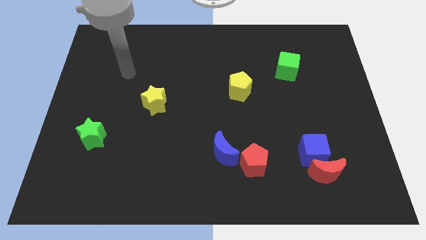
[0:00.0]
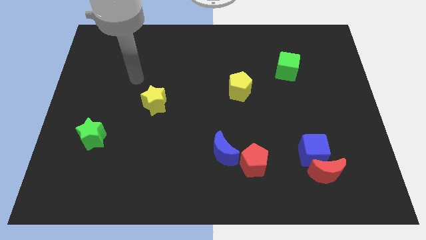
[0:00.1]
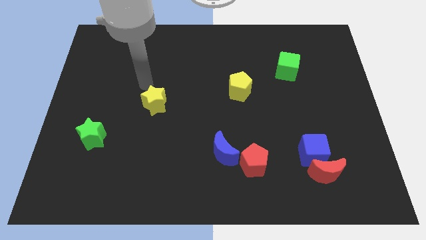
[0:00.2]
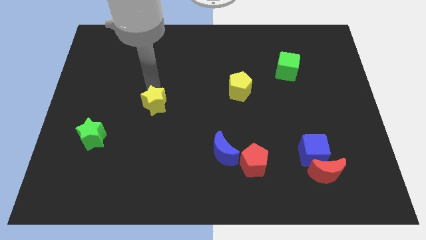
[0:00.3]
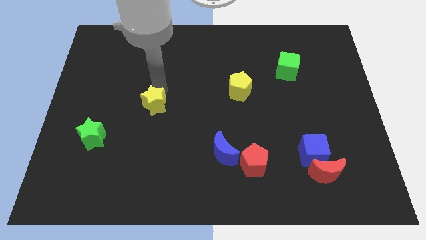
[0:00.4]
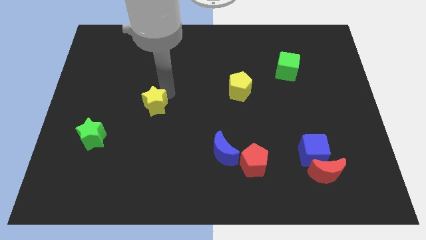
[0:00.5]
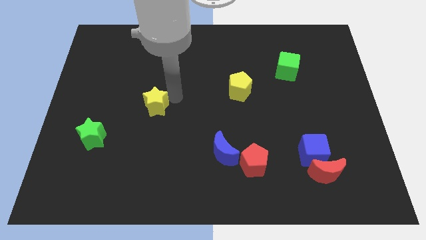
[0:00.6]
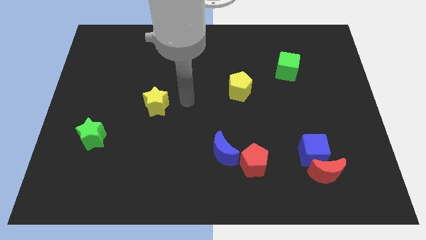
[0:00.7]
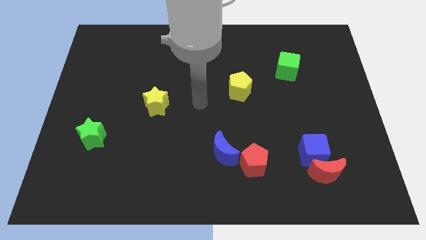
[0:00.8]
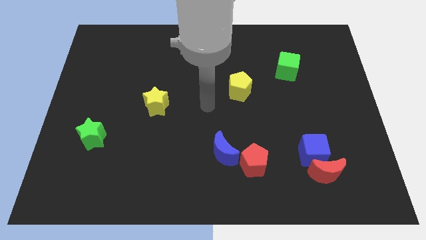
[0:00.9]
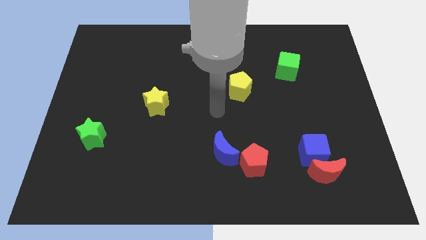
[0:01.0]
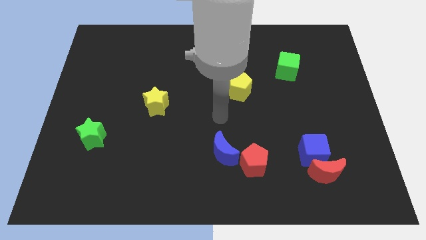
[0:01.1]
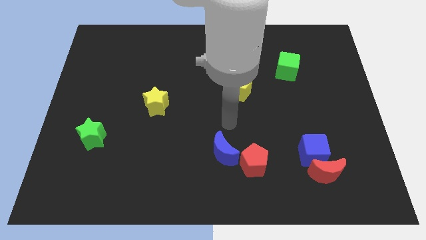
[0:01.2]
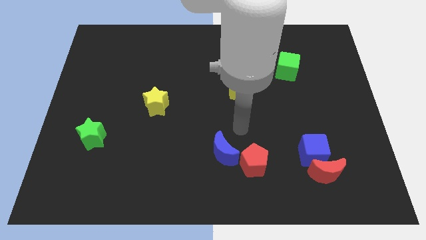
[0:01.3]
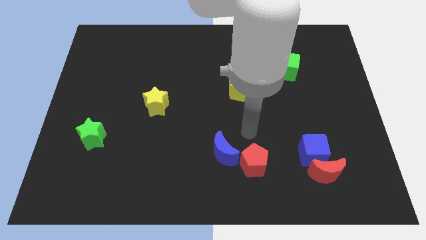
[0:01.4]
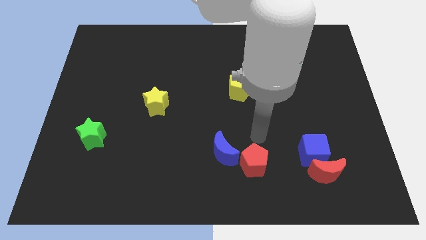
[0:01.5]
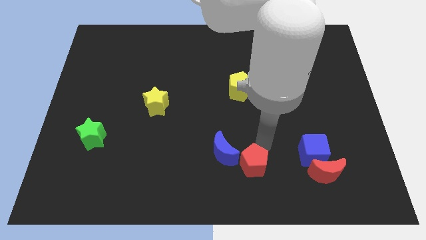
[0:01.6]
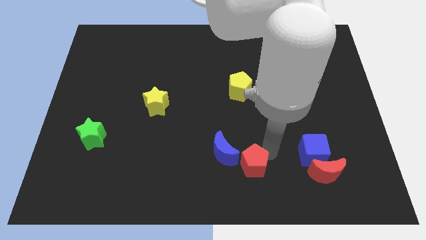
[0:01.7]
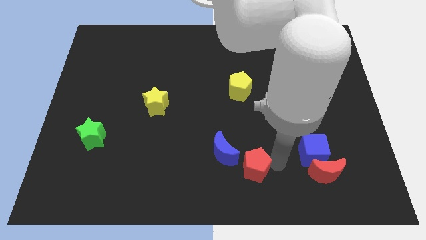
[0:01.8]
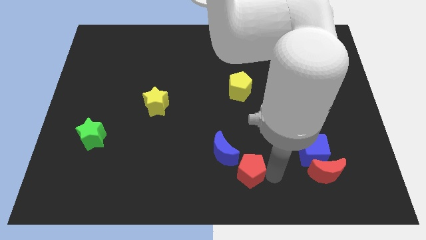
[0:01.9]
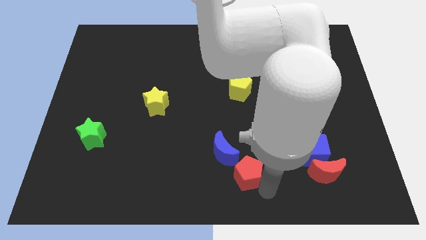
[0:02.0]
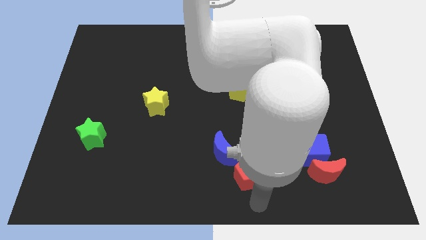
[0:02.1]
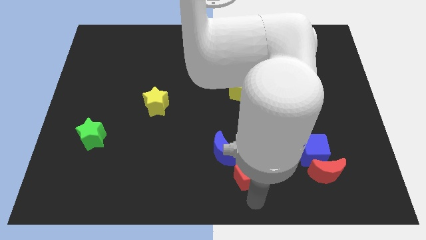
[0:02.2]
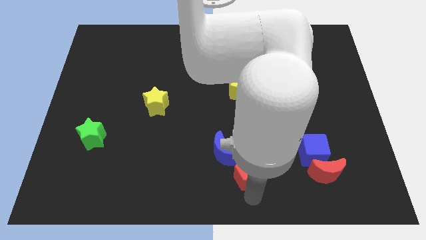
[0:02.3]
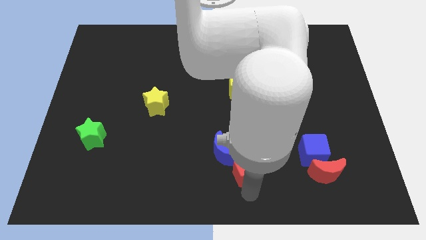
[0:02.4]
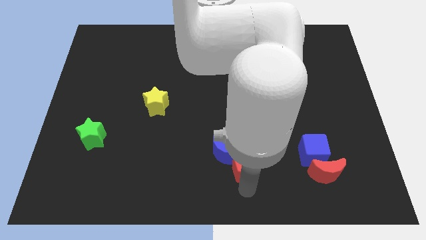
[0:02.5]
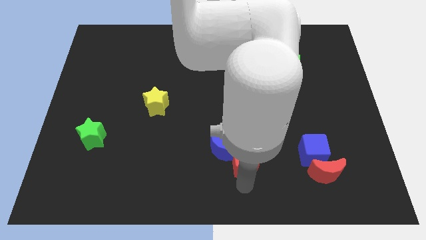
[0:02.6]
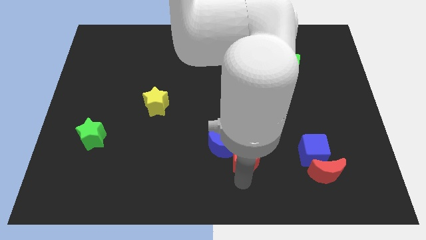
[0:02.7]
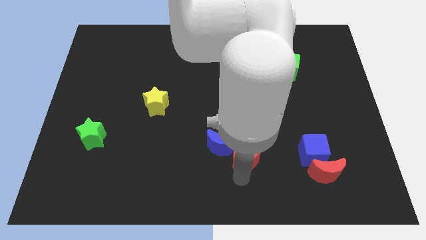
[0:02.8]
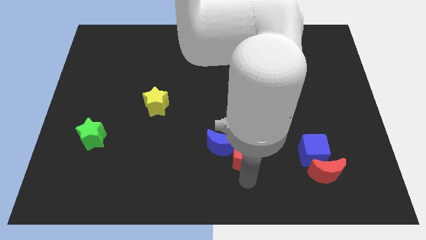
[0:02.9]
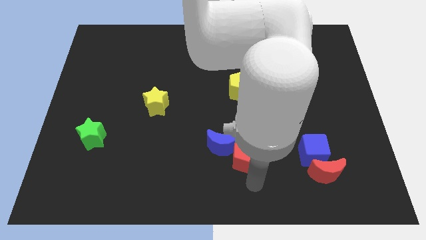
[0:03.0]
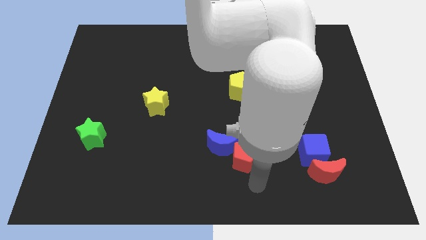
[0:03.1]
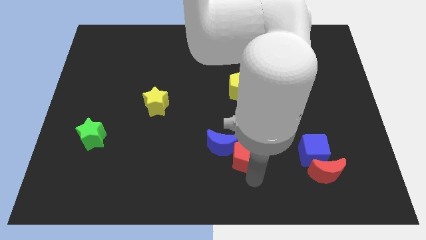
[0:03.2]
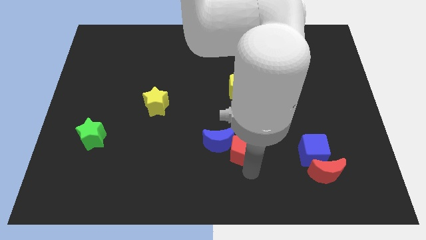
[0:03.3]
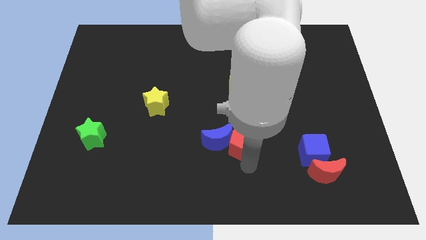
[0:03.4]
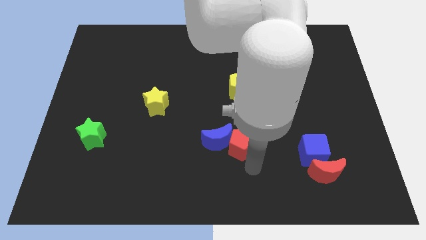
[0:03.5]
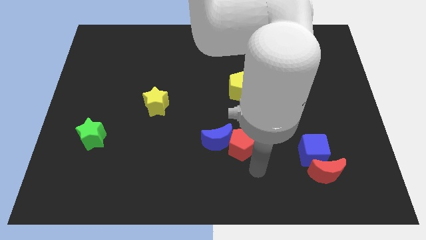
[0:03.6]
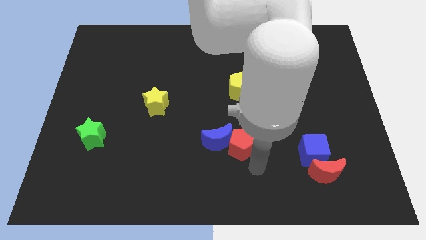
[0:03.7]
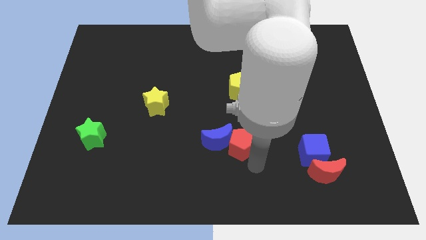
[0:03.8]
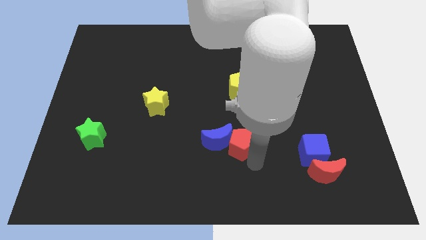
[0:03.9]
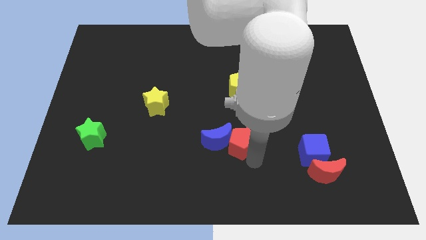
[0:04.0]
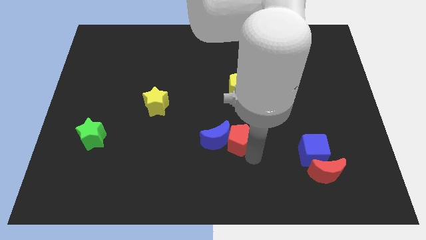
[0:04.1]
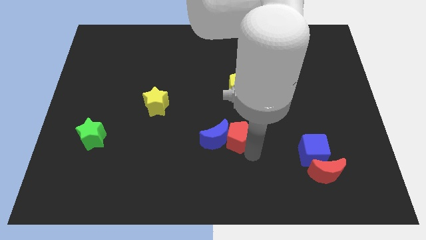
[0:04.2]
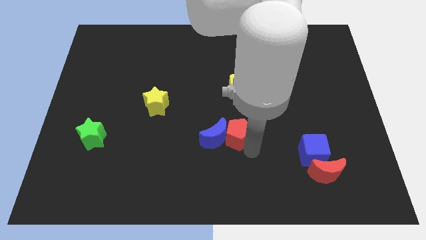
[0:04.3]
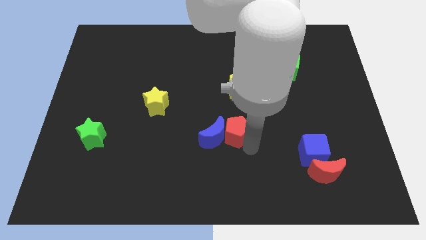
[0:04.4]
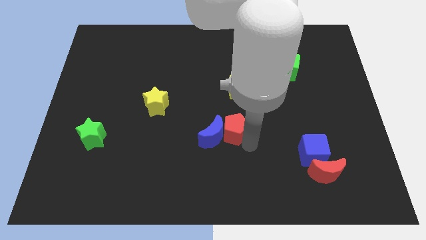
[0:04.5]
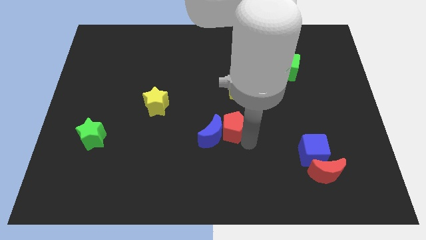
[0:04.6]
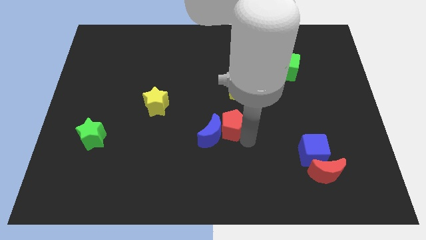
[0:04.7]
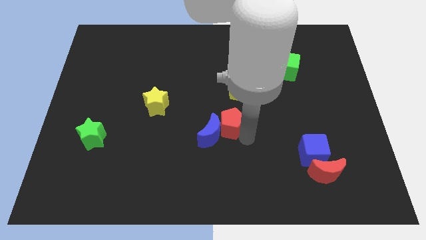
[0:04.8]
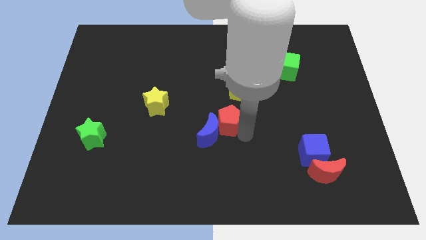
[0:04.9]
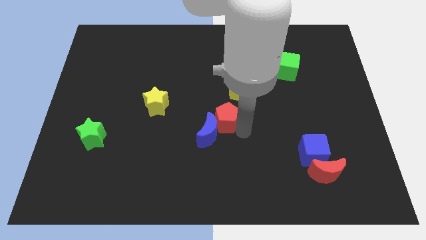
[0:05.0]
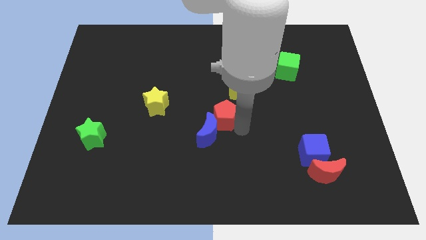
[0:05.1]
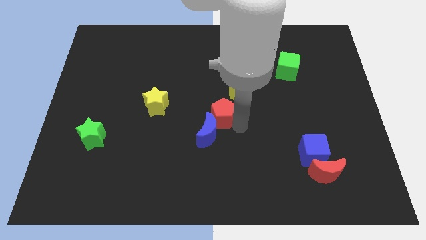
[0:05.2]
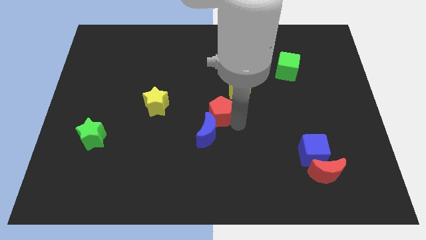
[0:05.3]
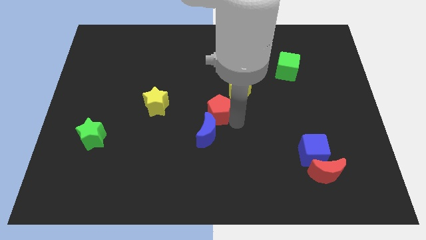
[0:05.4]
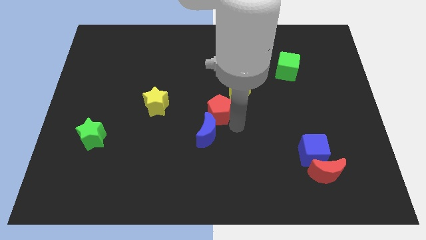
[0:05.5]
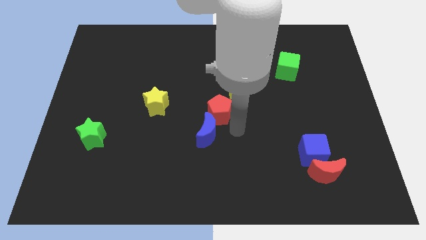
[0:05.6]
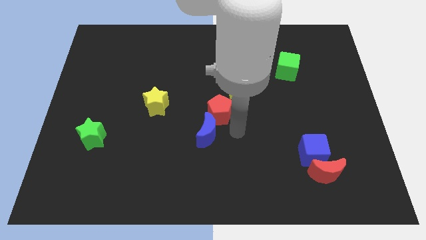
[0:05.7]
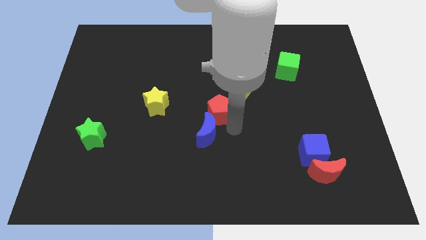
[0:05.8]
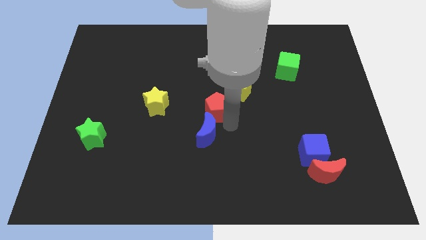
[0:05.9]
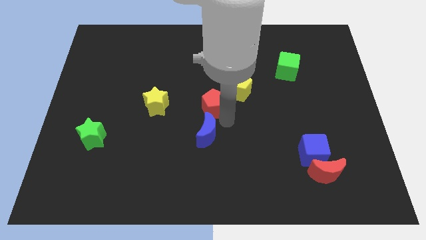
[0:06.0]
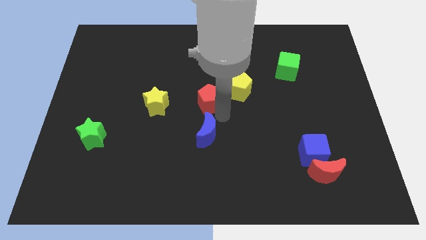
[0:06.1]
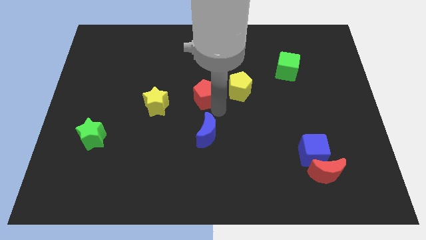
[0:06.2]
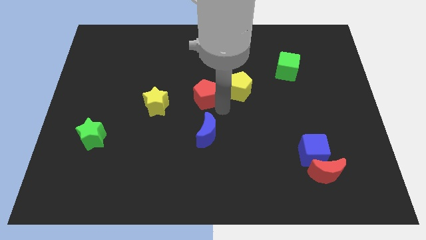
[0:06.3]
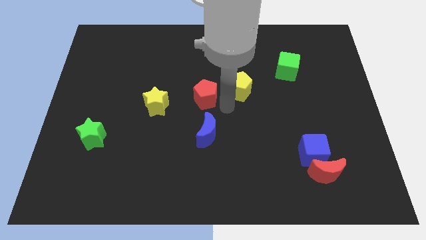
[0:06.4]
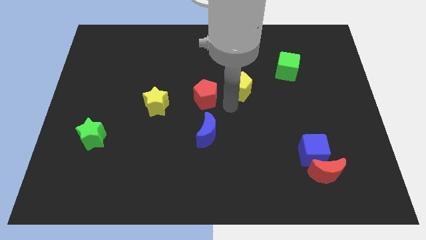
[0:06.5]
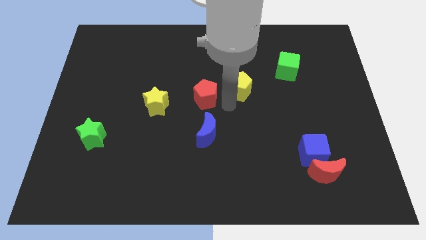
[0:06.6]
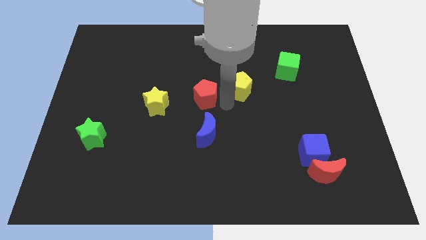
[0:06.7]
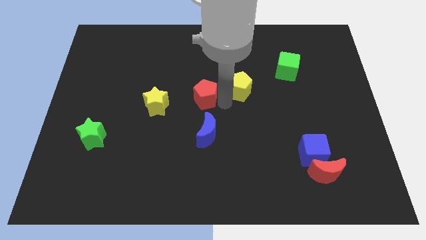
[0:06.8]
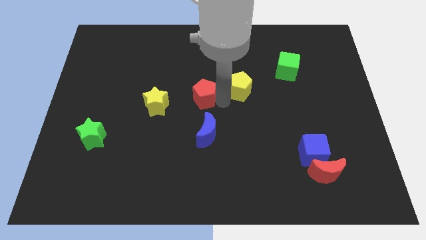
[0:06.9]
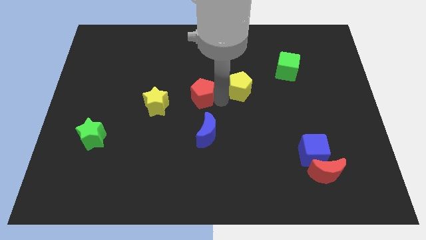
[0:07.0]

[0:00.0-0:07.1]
push the red pentagon upwards and left diagonally

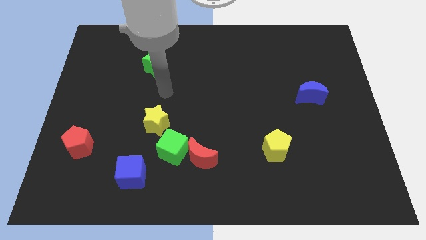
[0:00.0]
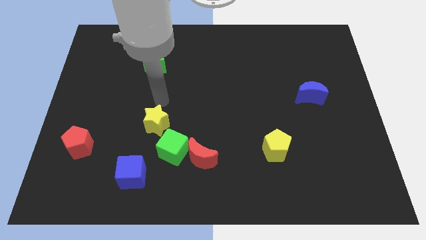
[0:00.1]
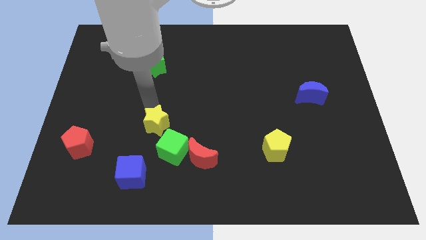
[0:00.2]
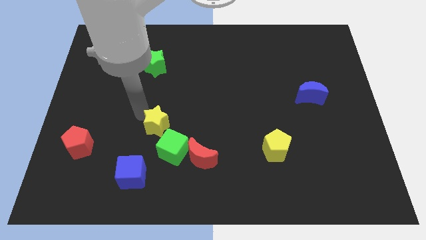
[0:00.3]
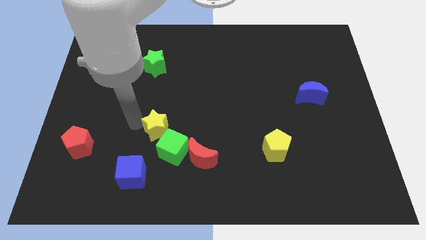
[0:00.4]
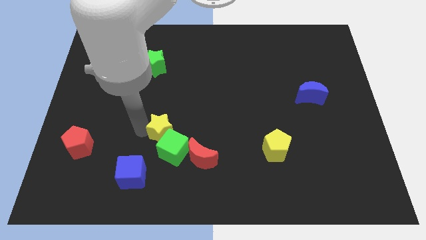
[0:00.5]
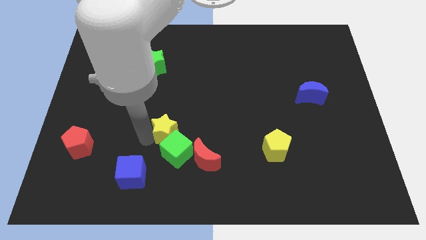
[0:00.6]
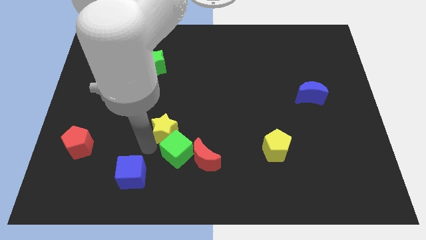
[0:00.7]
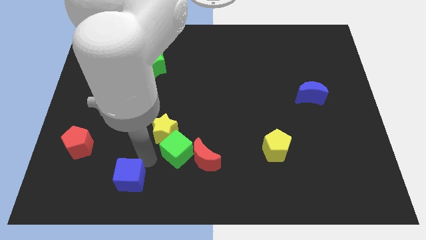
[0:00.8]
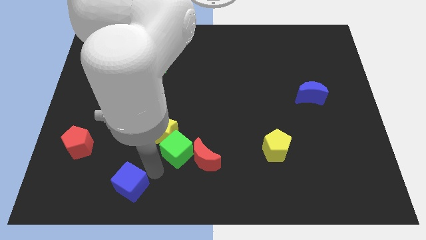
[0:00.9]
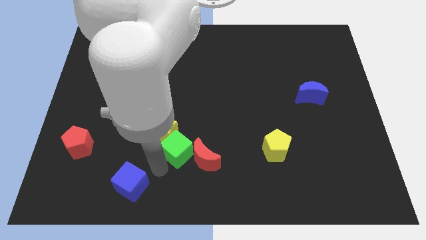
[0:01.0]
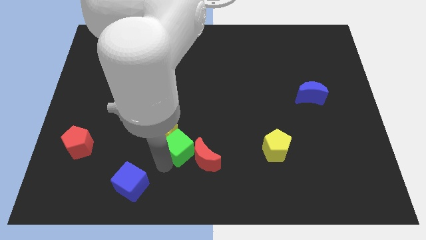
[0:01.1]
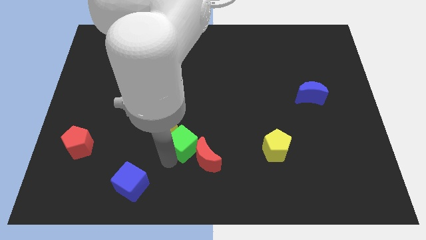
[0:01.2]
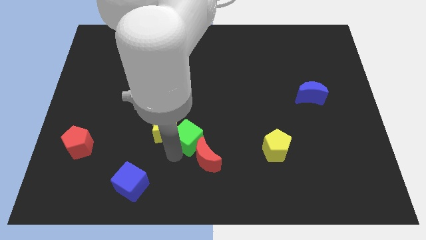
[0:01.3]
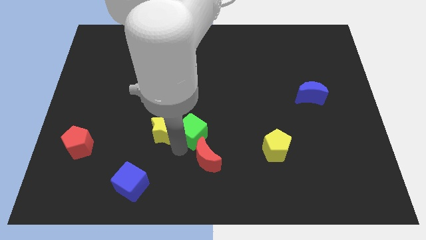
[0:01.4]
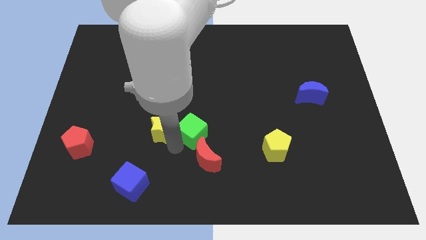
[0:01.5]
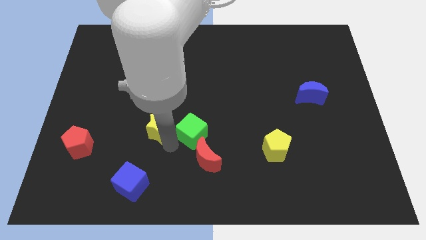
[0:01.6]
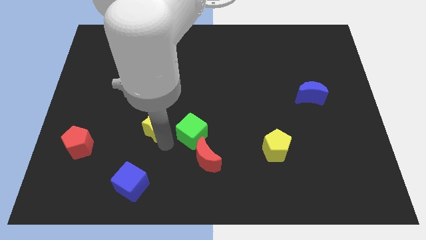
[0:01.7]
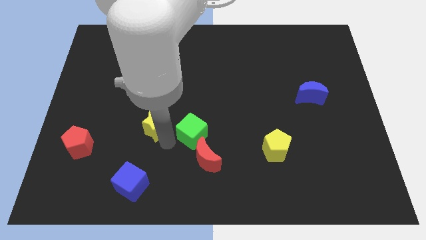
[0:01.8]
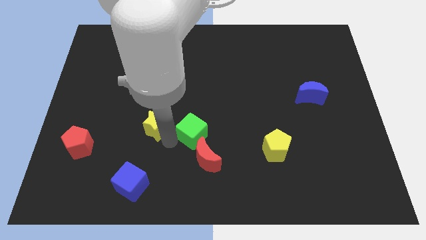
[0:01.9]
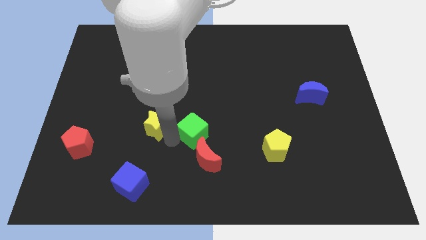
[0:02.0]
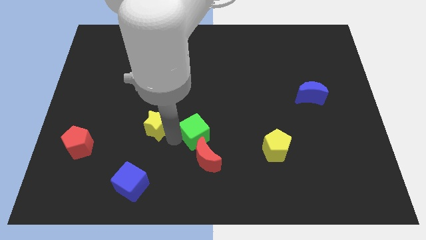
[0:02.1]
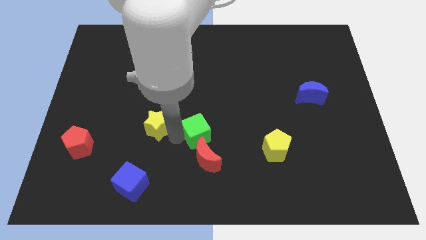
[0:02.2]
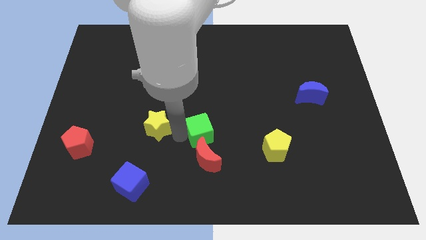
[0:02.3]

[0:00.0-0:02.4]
slide the green cube up and right a little
